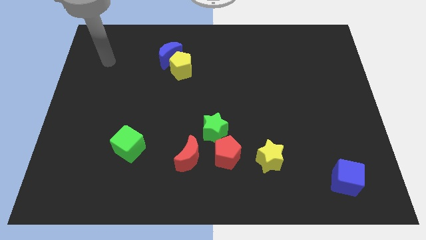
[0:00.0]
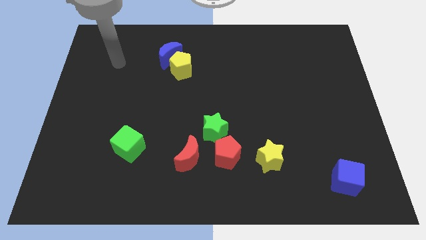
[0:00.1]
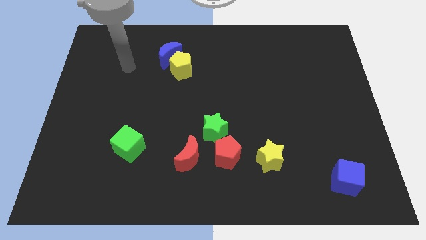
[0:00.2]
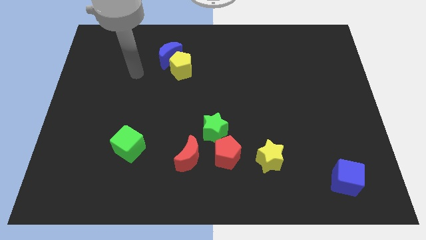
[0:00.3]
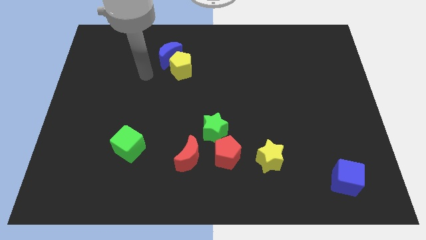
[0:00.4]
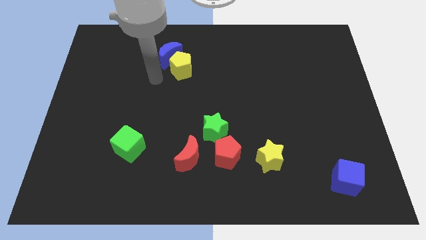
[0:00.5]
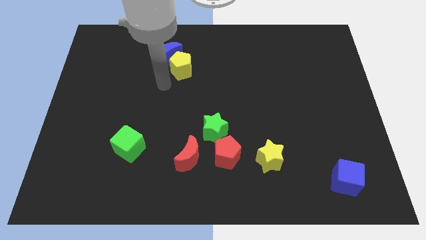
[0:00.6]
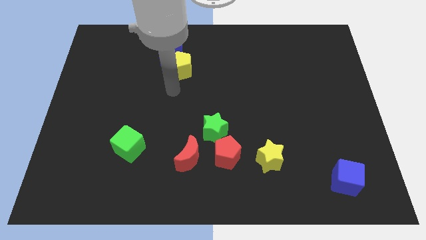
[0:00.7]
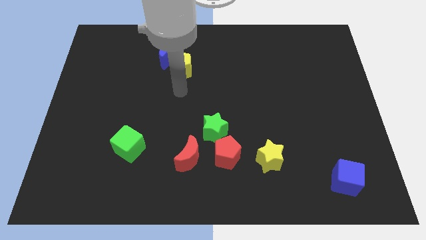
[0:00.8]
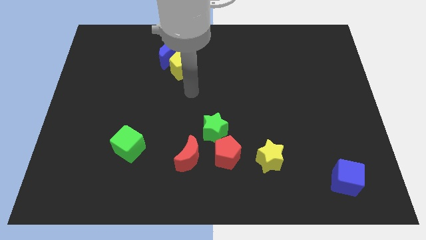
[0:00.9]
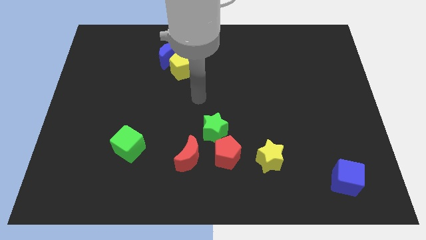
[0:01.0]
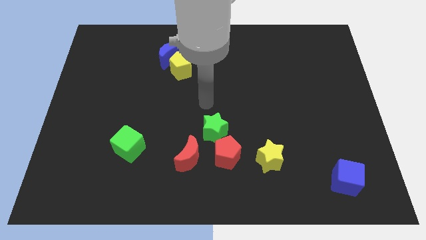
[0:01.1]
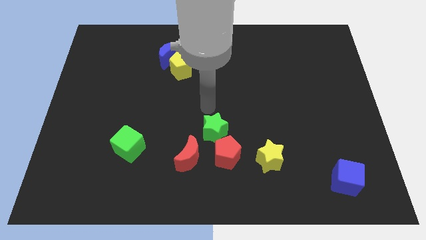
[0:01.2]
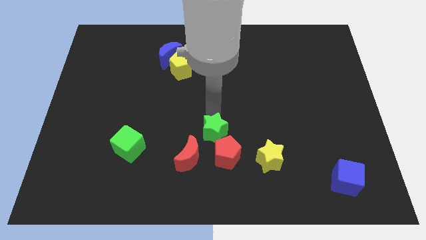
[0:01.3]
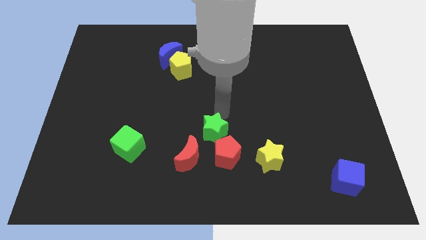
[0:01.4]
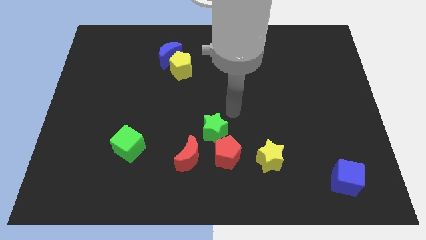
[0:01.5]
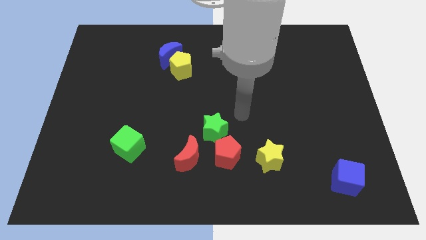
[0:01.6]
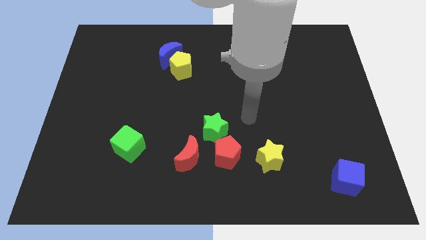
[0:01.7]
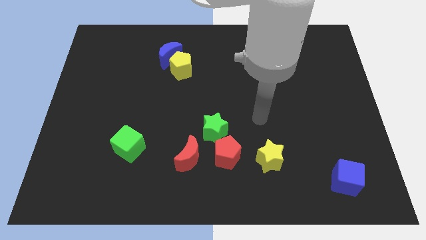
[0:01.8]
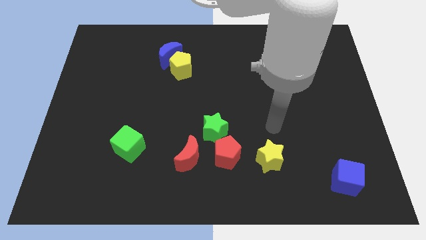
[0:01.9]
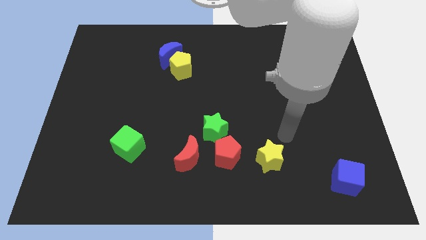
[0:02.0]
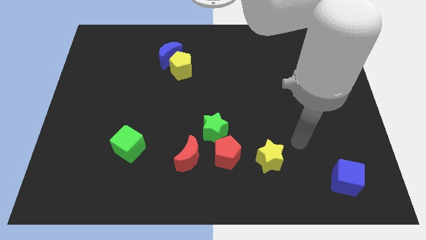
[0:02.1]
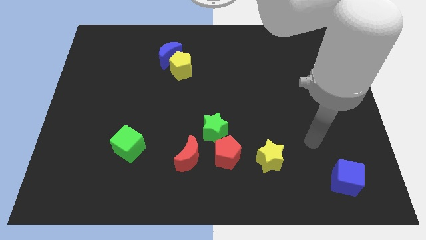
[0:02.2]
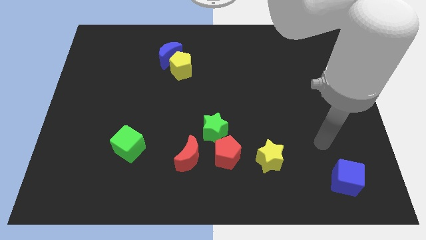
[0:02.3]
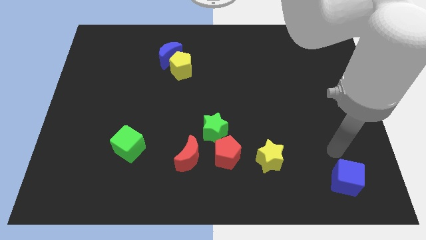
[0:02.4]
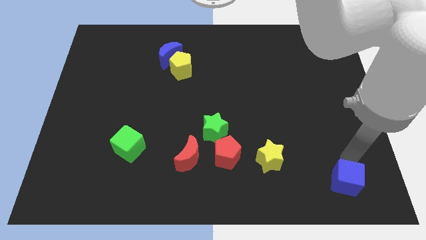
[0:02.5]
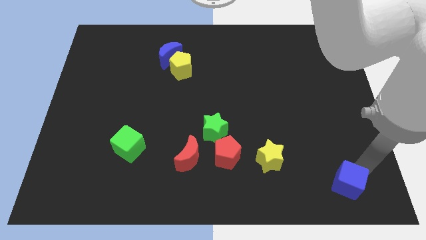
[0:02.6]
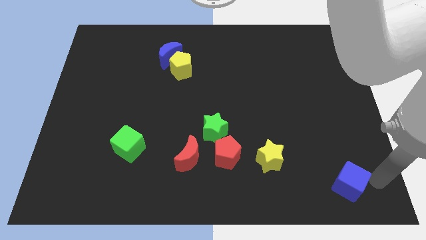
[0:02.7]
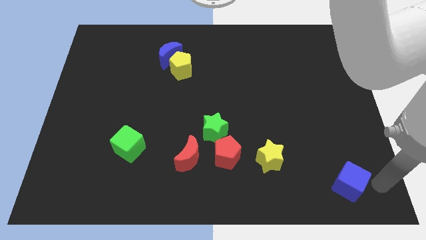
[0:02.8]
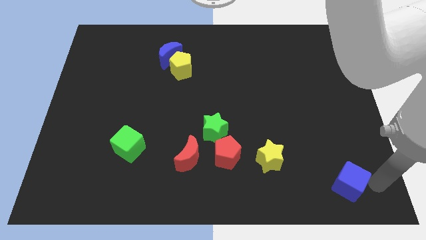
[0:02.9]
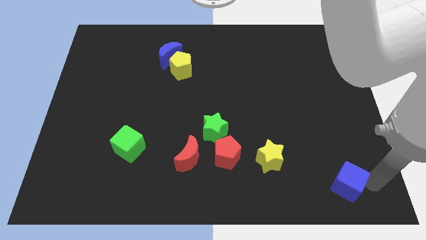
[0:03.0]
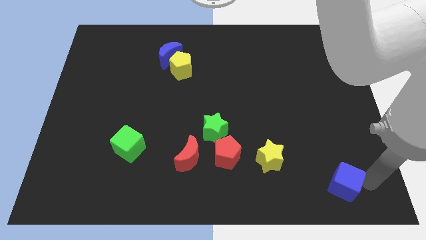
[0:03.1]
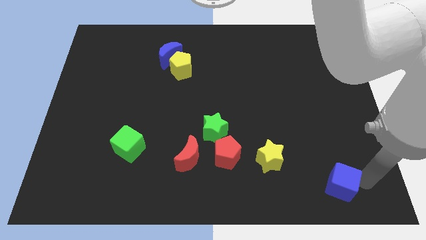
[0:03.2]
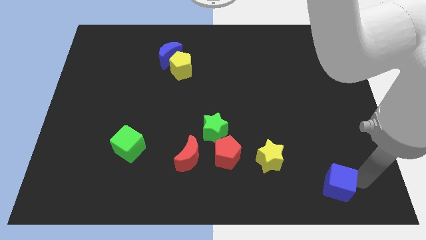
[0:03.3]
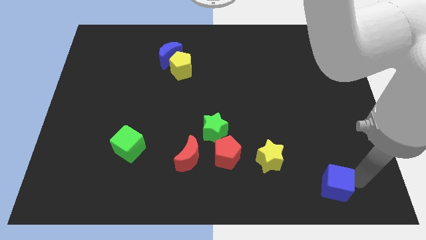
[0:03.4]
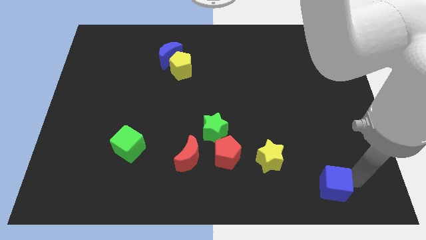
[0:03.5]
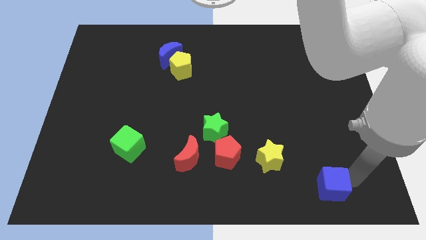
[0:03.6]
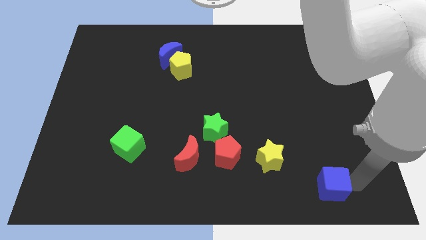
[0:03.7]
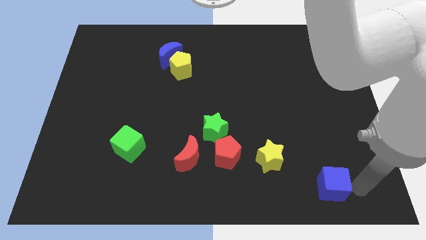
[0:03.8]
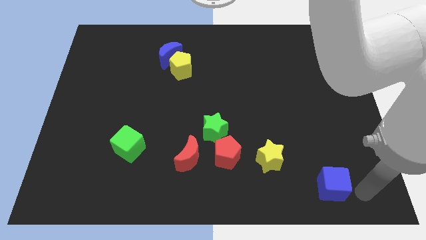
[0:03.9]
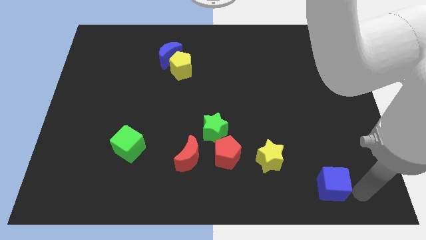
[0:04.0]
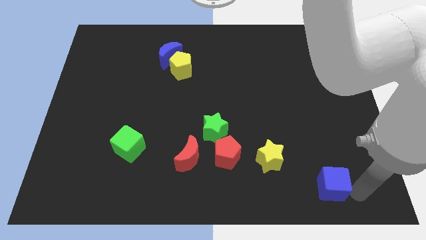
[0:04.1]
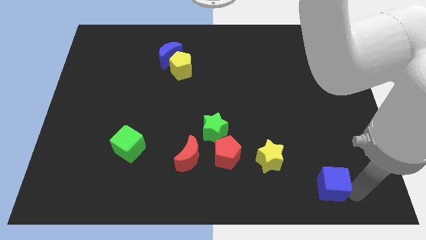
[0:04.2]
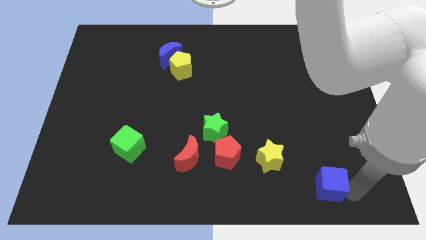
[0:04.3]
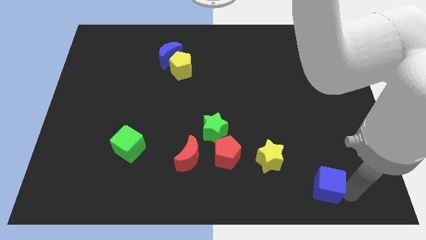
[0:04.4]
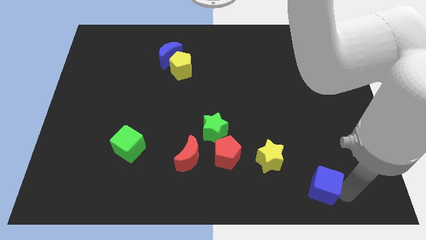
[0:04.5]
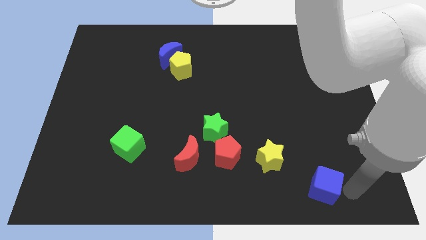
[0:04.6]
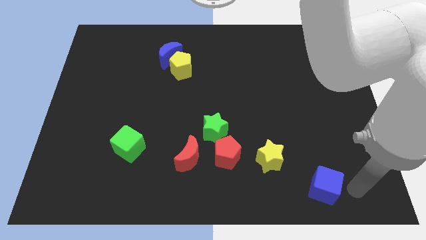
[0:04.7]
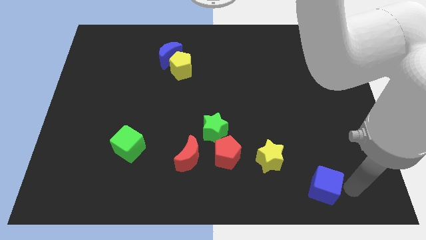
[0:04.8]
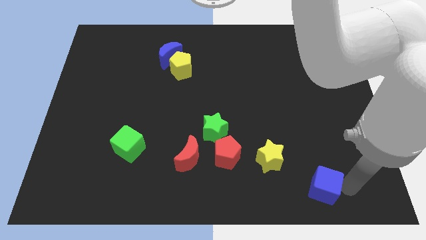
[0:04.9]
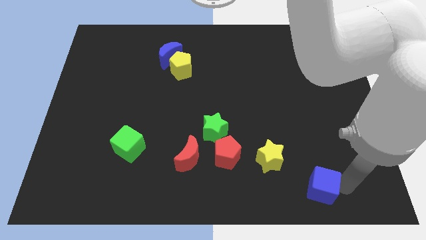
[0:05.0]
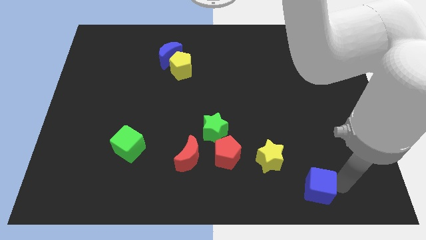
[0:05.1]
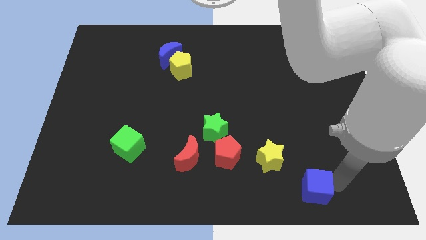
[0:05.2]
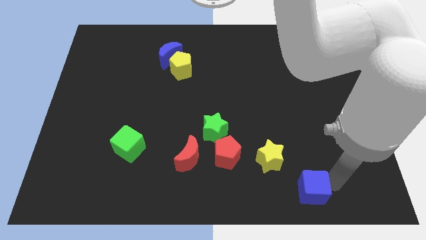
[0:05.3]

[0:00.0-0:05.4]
slightly push the blue cube left

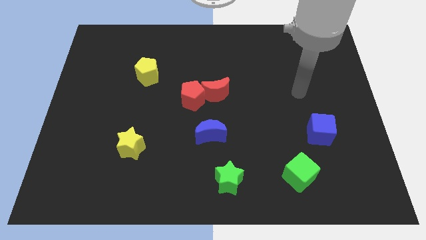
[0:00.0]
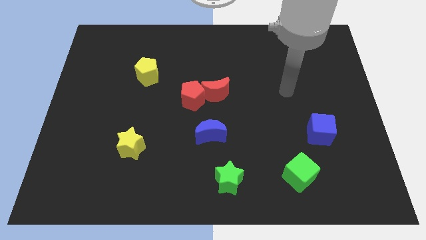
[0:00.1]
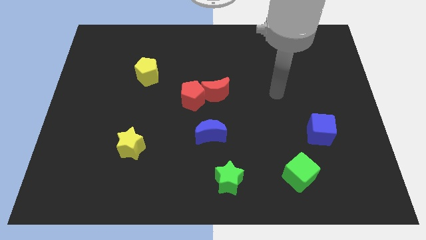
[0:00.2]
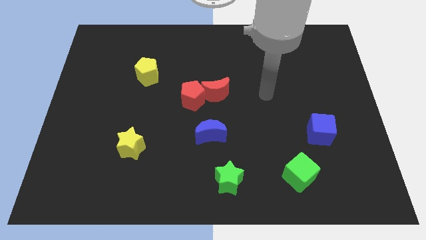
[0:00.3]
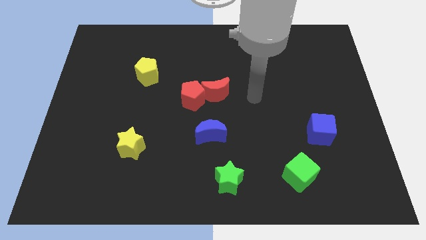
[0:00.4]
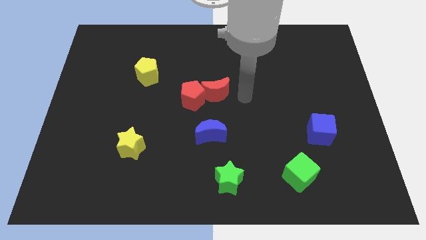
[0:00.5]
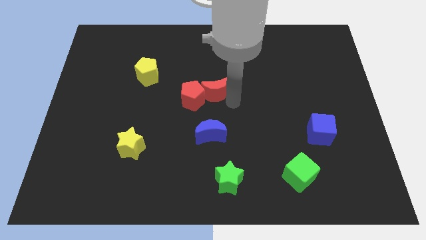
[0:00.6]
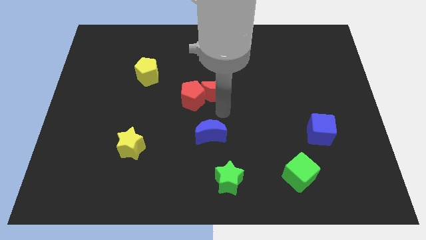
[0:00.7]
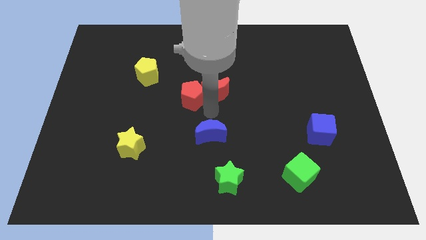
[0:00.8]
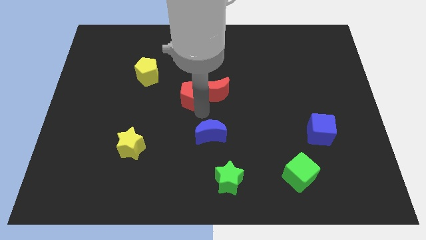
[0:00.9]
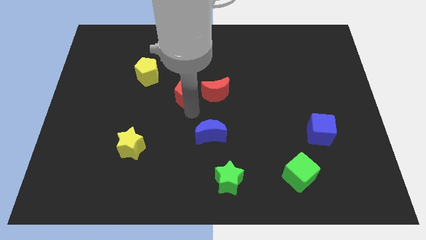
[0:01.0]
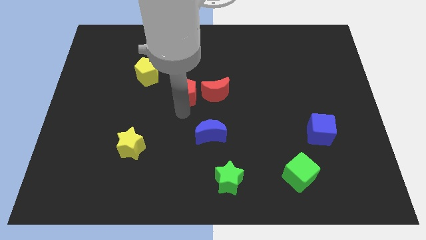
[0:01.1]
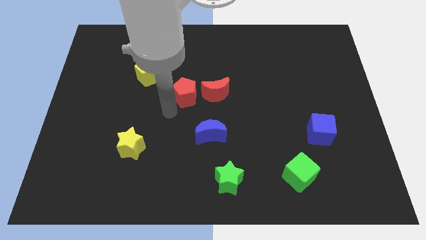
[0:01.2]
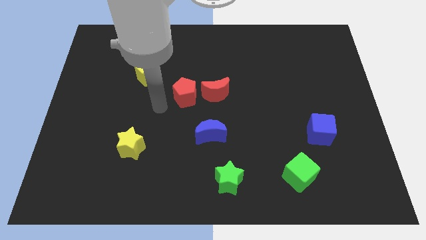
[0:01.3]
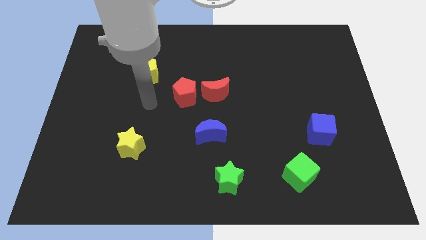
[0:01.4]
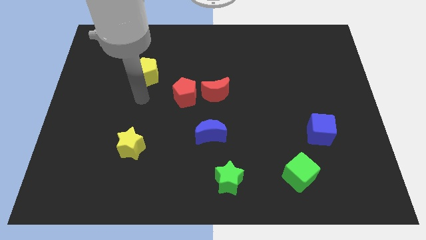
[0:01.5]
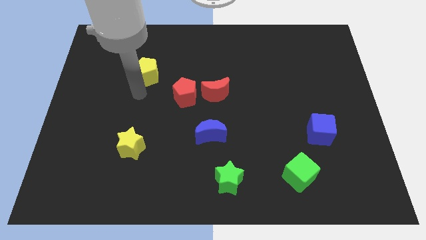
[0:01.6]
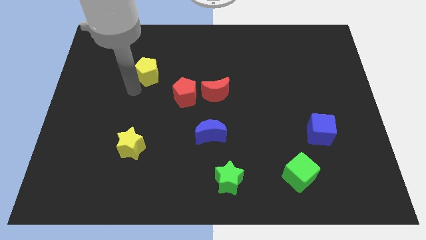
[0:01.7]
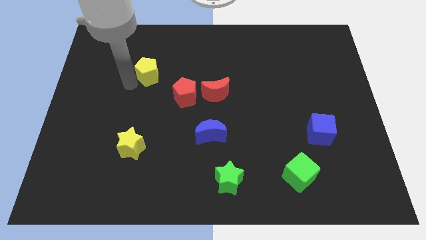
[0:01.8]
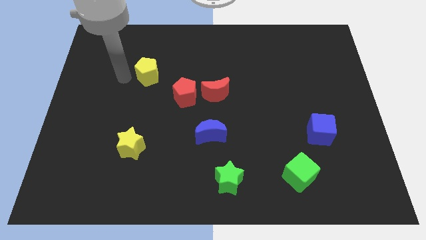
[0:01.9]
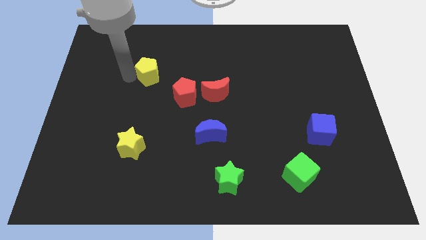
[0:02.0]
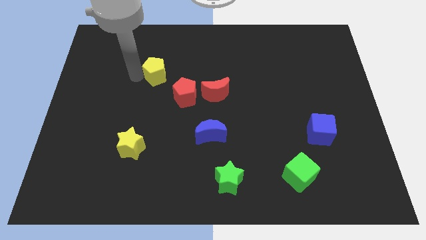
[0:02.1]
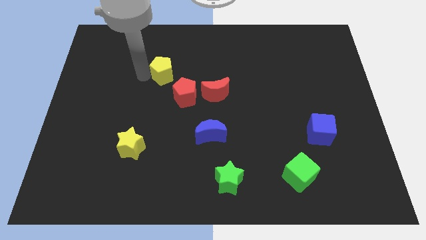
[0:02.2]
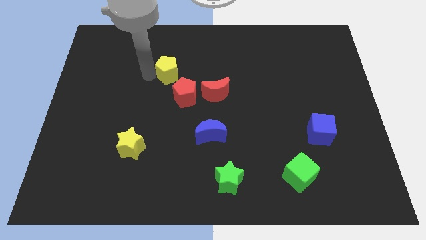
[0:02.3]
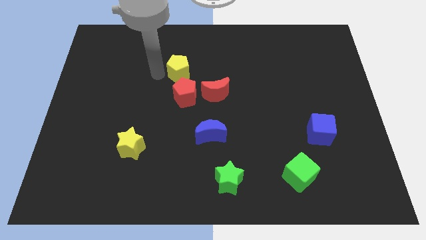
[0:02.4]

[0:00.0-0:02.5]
push the yellow pentagon right a little bit

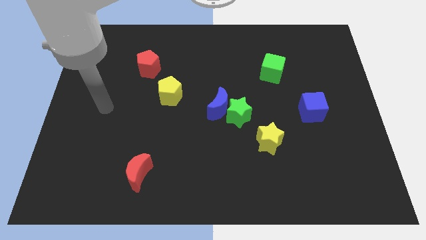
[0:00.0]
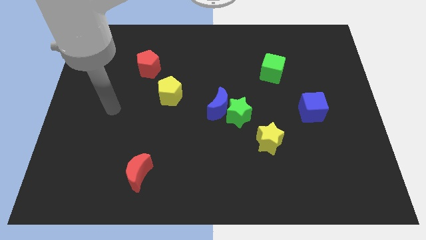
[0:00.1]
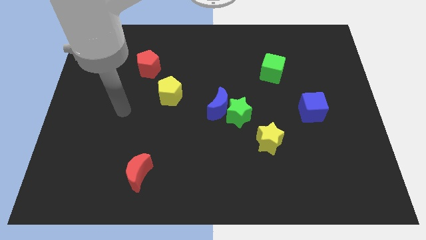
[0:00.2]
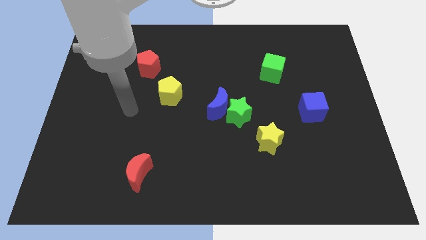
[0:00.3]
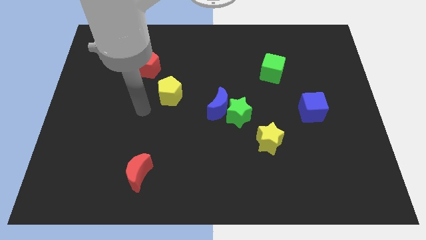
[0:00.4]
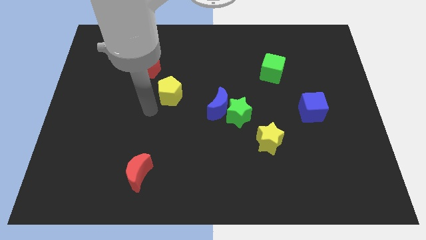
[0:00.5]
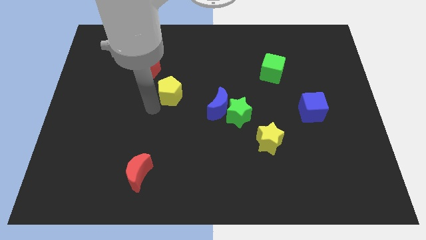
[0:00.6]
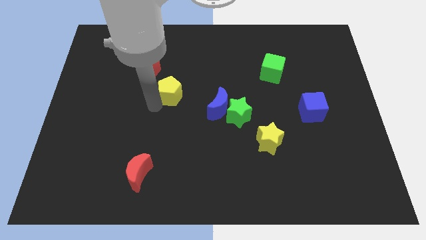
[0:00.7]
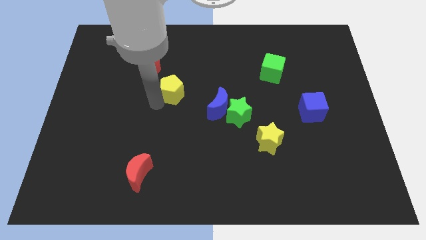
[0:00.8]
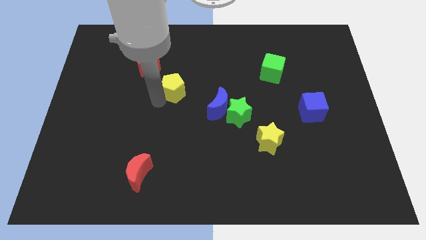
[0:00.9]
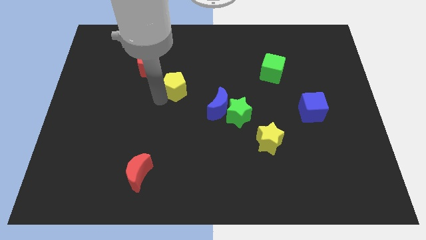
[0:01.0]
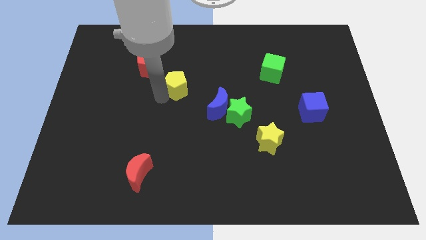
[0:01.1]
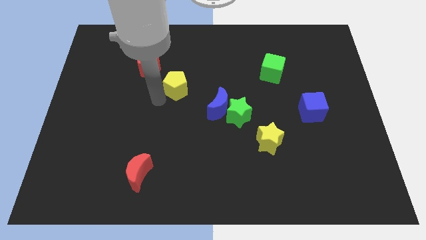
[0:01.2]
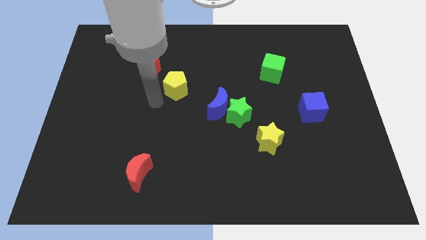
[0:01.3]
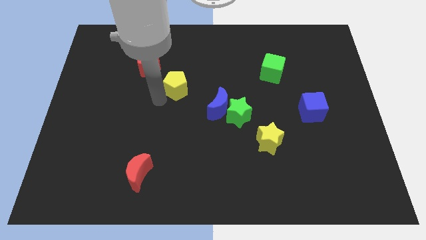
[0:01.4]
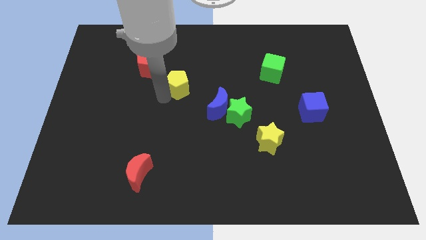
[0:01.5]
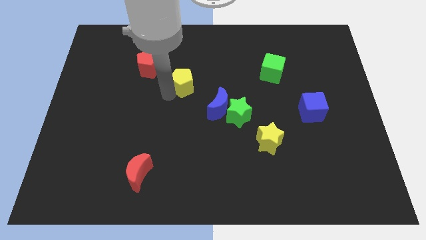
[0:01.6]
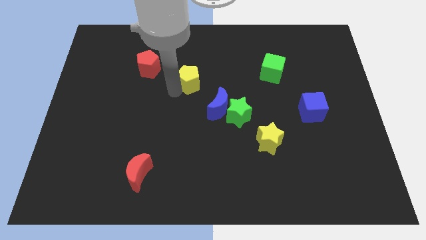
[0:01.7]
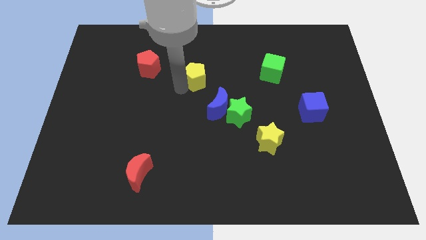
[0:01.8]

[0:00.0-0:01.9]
slightly push the yellow pentagon diagonally upwards and right
